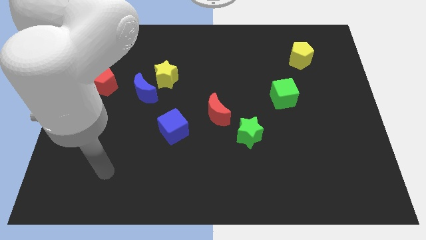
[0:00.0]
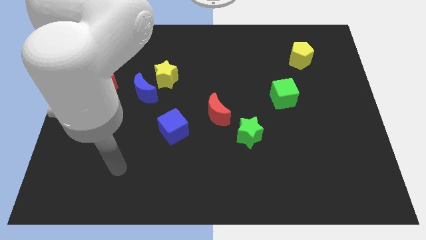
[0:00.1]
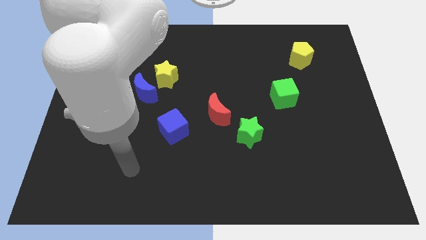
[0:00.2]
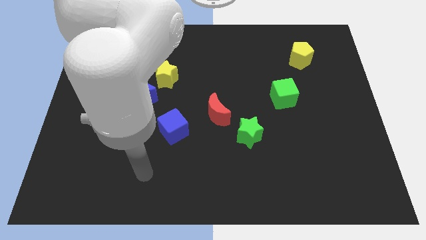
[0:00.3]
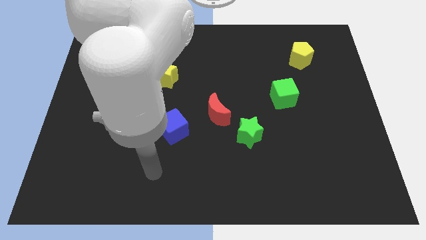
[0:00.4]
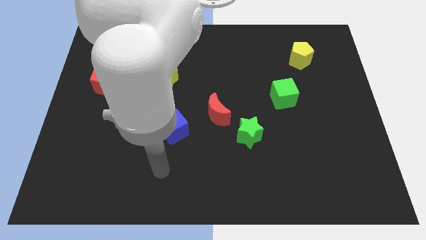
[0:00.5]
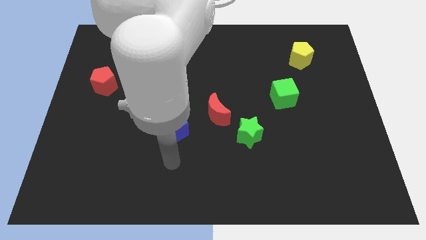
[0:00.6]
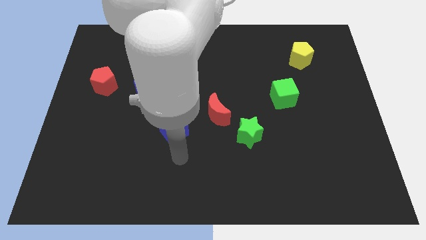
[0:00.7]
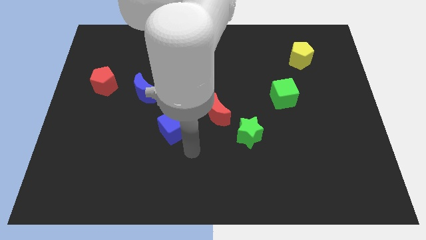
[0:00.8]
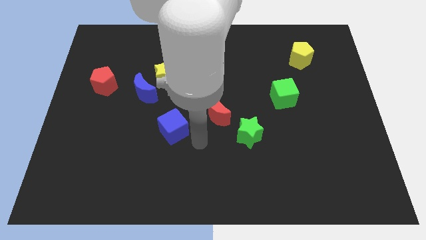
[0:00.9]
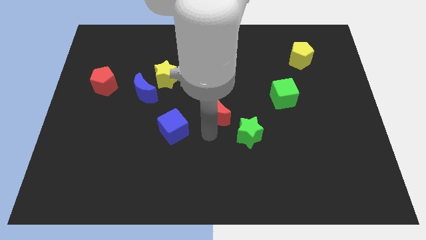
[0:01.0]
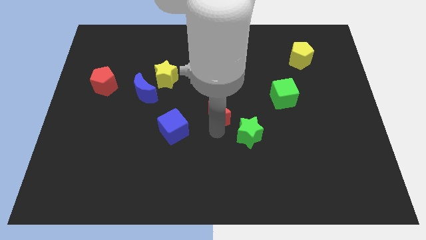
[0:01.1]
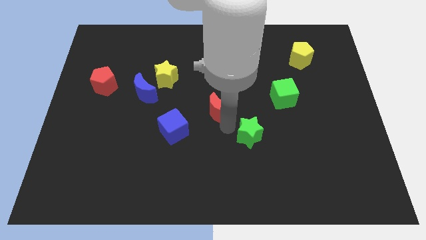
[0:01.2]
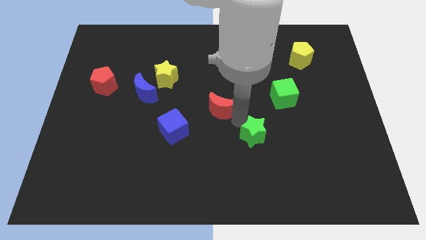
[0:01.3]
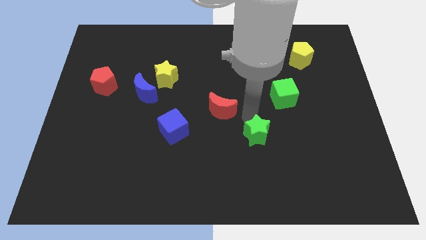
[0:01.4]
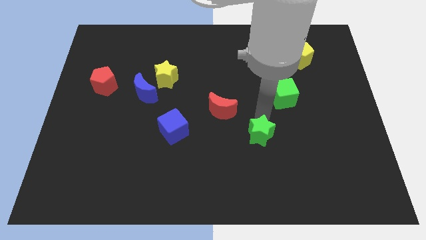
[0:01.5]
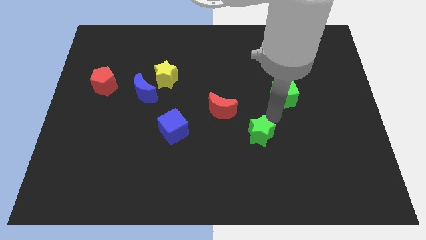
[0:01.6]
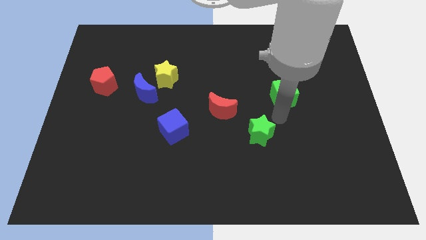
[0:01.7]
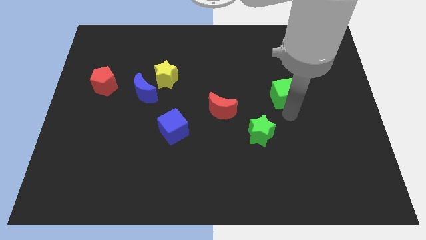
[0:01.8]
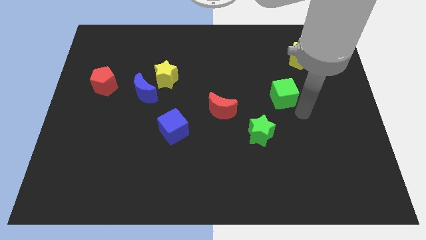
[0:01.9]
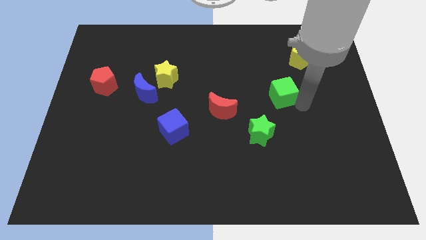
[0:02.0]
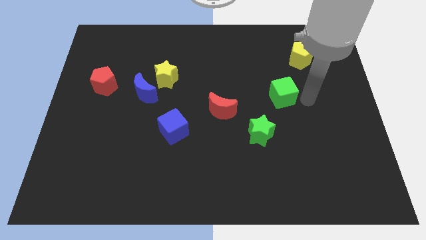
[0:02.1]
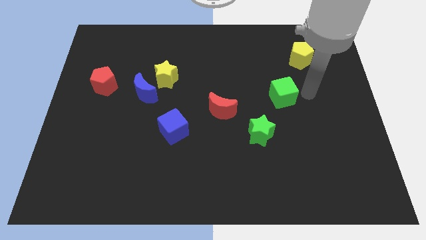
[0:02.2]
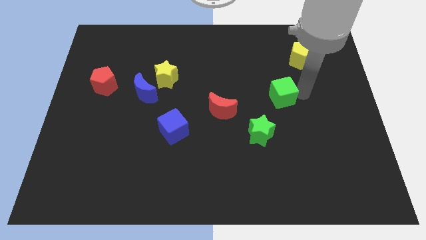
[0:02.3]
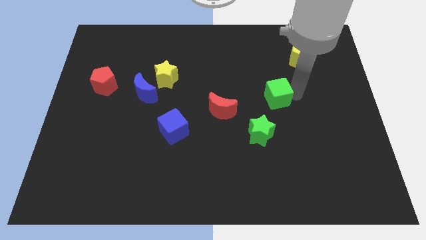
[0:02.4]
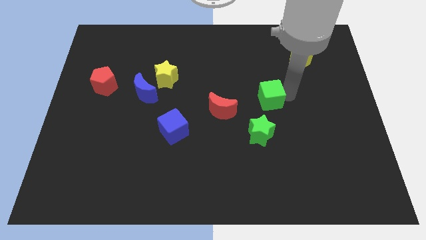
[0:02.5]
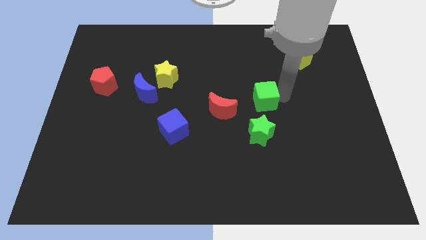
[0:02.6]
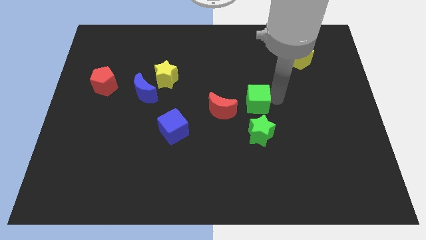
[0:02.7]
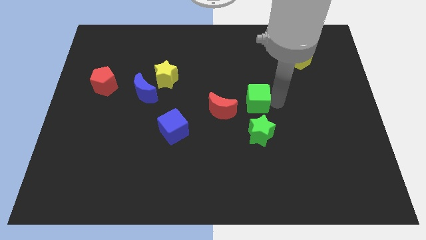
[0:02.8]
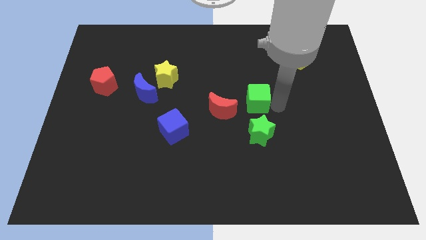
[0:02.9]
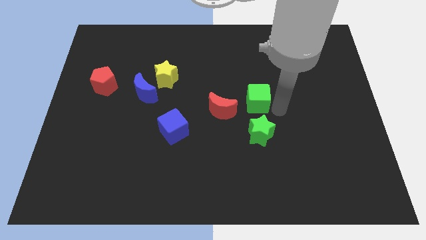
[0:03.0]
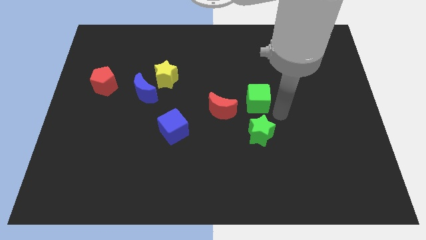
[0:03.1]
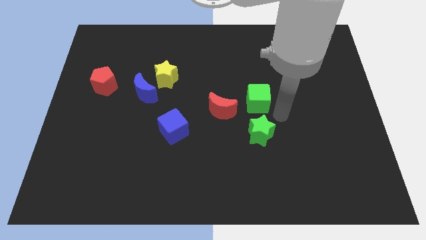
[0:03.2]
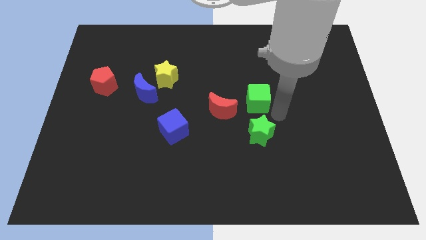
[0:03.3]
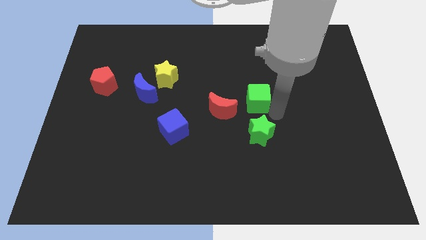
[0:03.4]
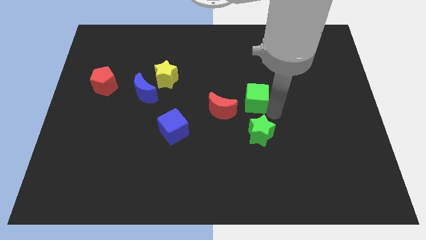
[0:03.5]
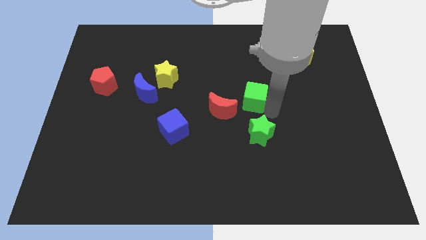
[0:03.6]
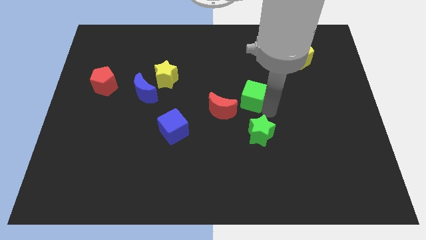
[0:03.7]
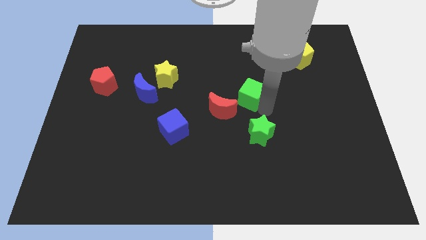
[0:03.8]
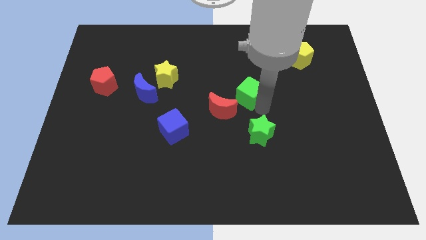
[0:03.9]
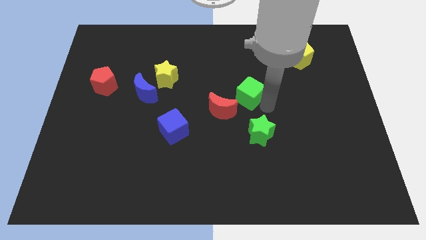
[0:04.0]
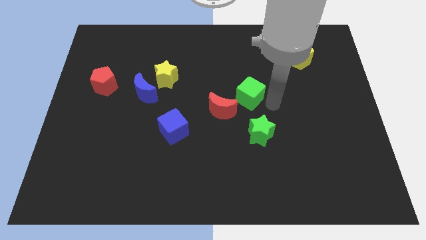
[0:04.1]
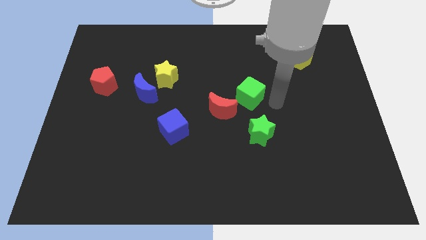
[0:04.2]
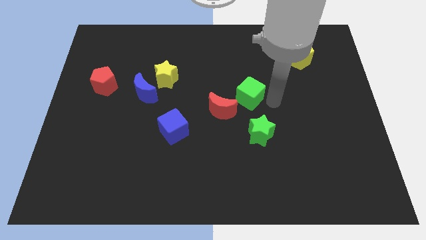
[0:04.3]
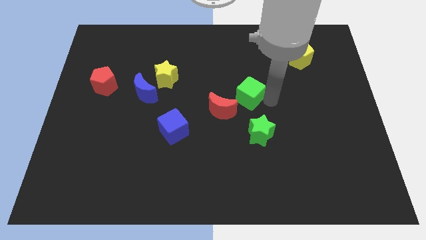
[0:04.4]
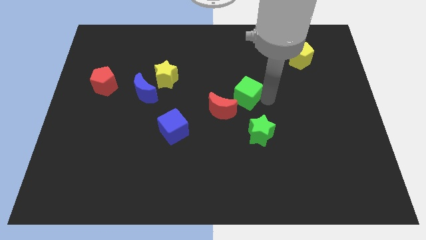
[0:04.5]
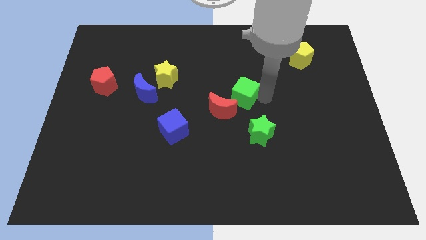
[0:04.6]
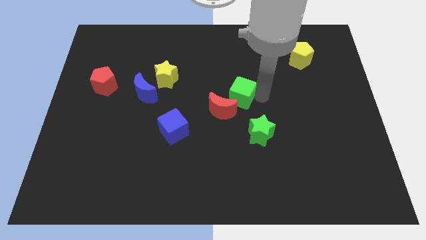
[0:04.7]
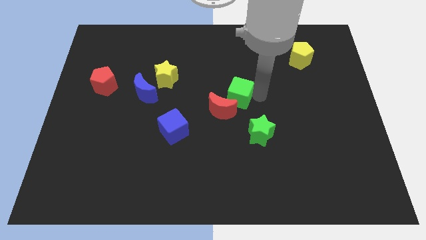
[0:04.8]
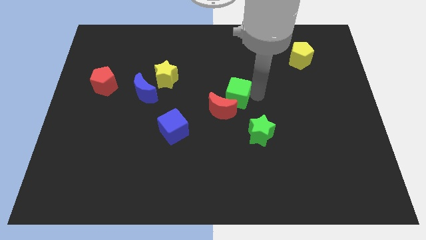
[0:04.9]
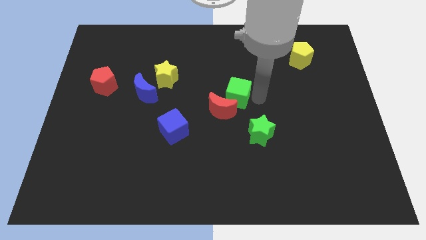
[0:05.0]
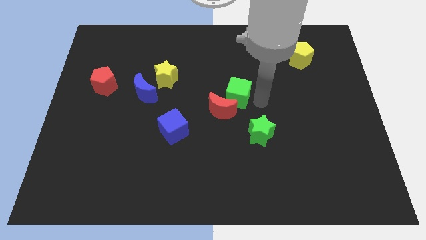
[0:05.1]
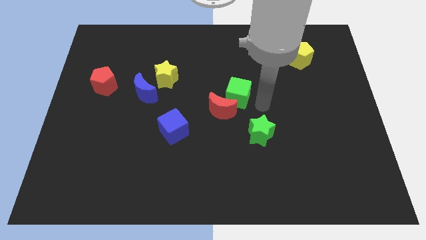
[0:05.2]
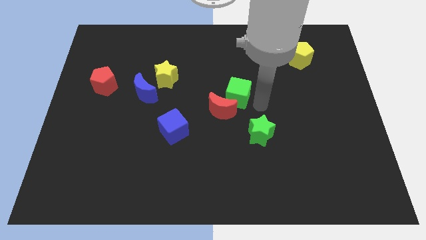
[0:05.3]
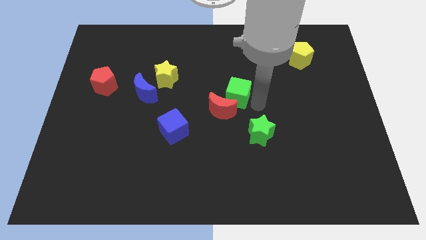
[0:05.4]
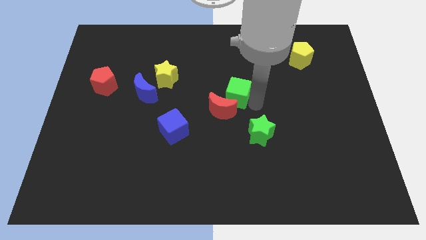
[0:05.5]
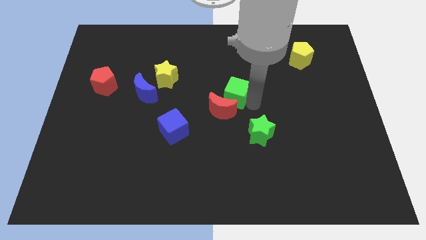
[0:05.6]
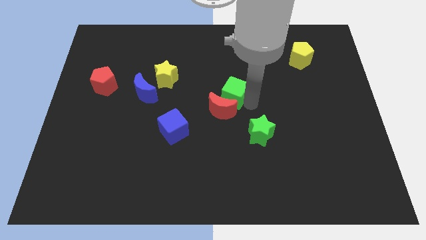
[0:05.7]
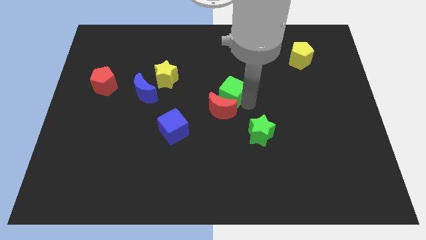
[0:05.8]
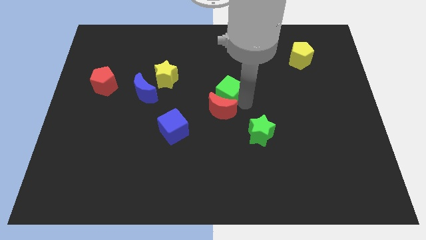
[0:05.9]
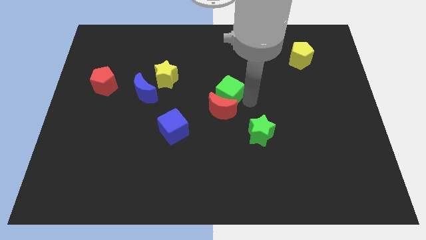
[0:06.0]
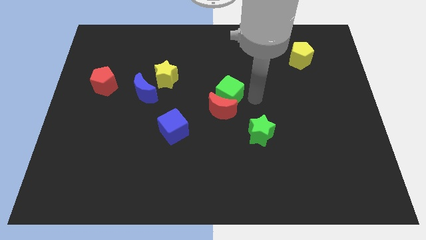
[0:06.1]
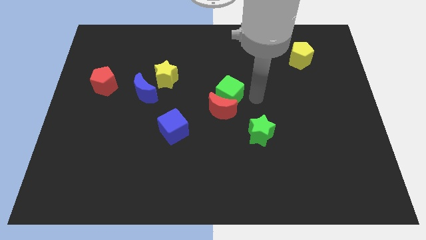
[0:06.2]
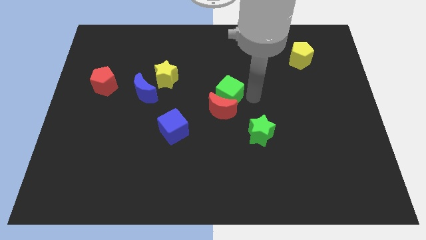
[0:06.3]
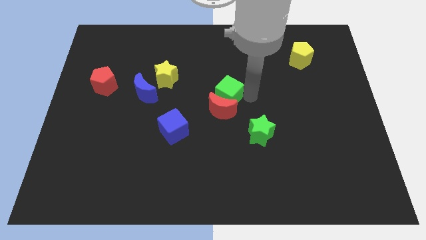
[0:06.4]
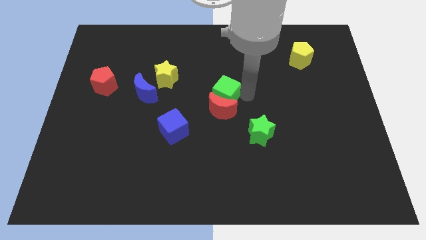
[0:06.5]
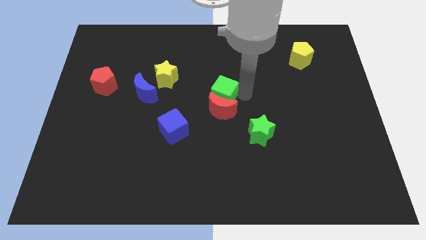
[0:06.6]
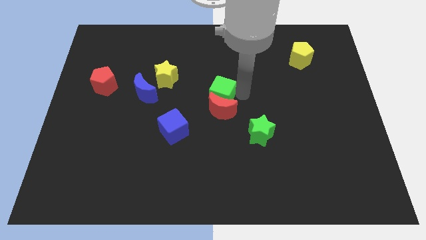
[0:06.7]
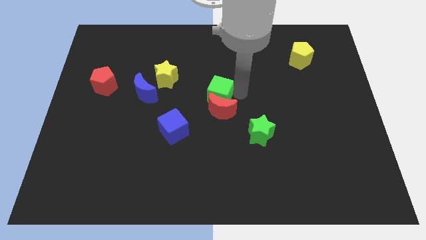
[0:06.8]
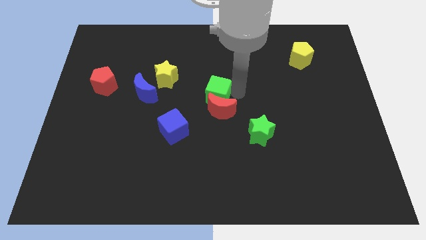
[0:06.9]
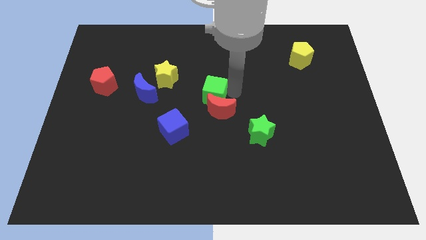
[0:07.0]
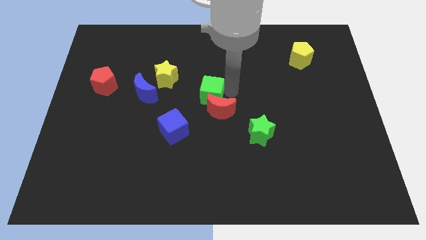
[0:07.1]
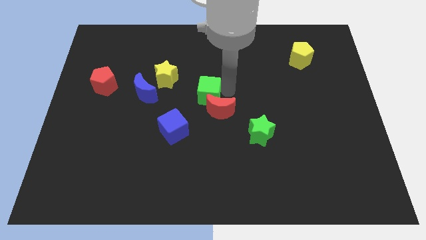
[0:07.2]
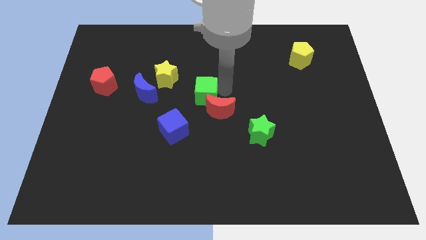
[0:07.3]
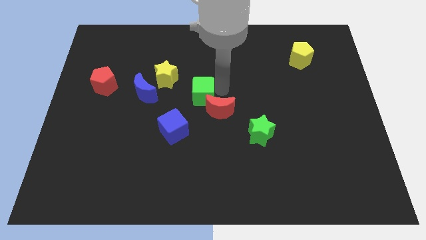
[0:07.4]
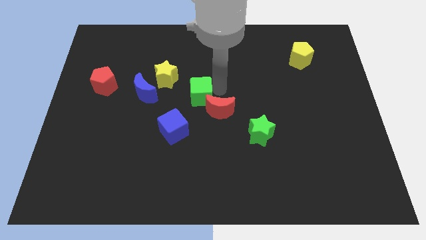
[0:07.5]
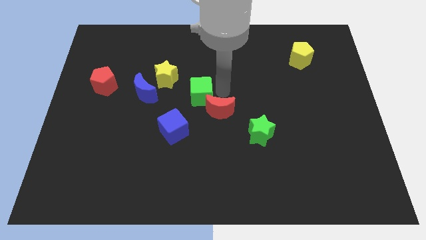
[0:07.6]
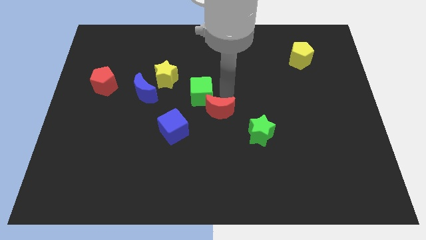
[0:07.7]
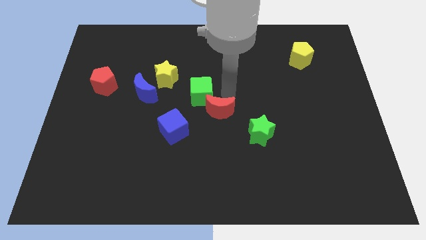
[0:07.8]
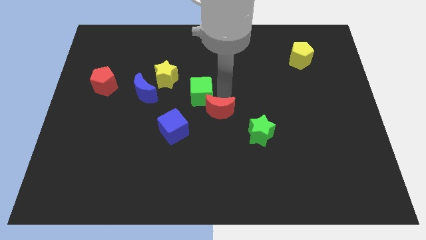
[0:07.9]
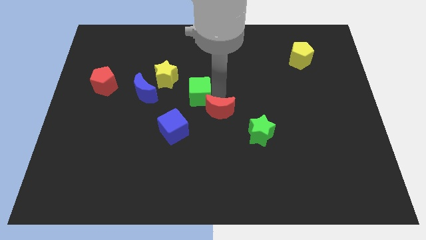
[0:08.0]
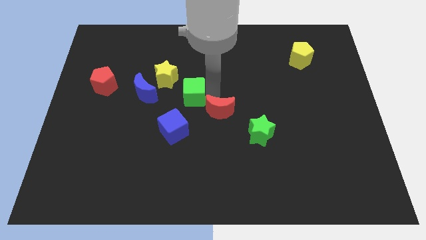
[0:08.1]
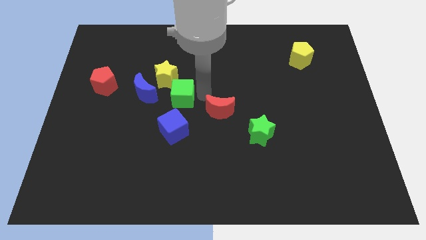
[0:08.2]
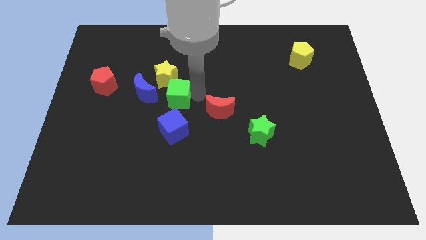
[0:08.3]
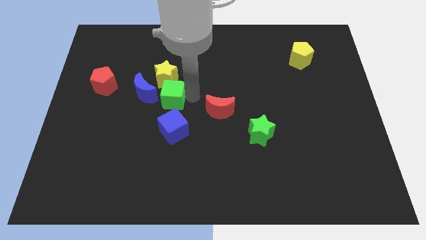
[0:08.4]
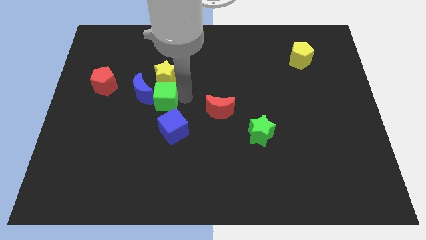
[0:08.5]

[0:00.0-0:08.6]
slide the green cube to the blue moon
